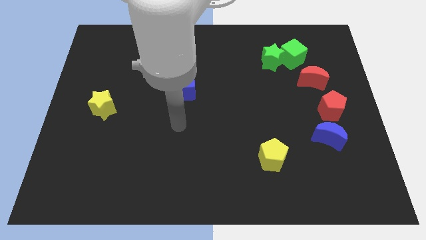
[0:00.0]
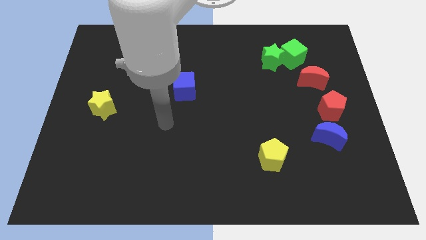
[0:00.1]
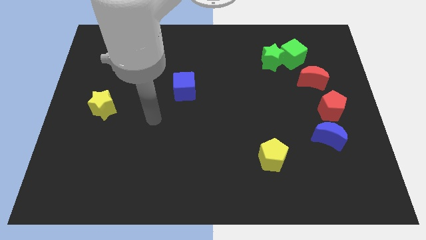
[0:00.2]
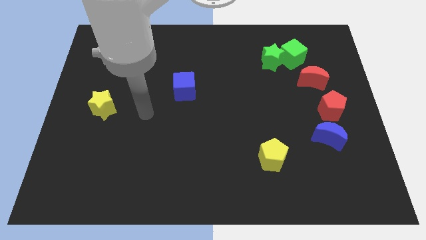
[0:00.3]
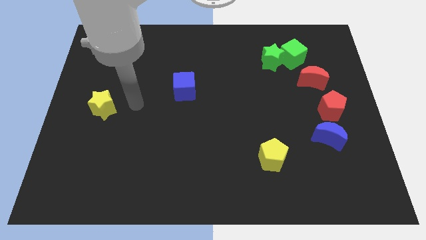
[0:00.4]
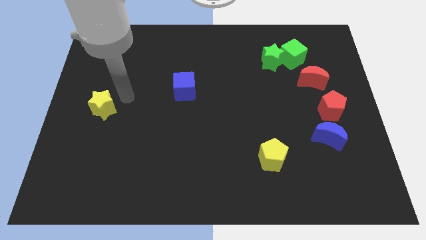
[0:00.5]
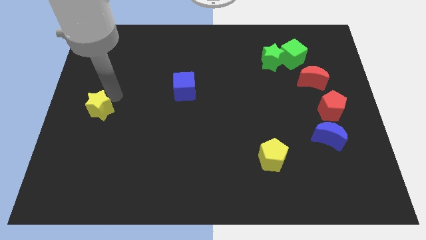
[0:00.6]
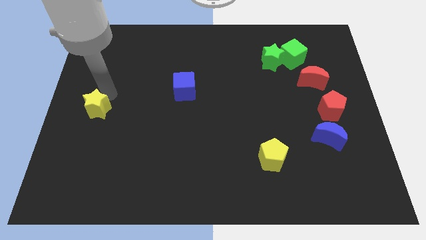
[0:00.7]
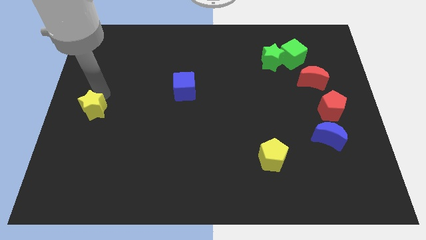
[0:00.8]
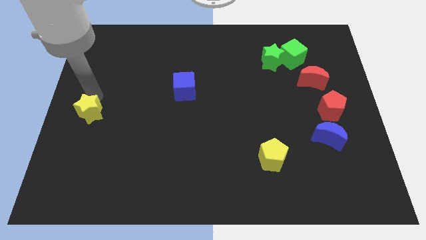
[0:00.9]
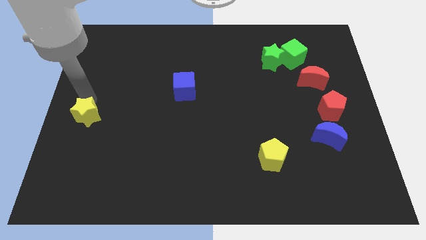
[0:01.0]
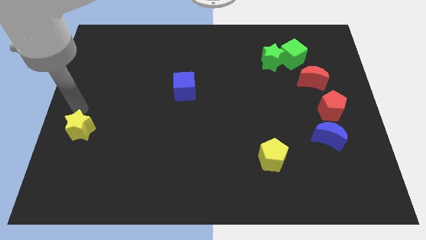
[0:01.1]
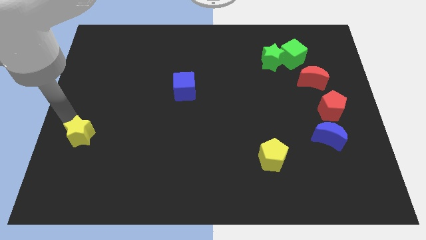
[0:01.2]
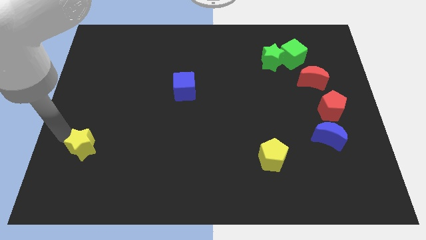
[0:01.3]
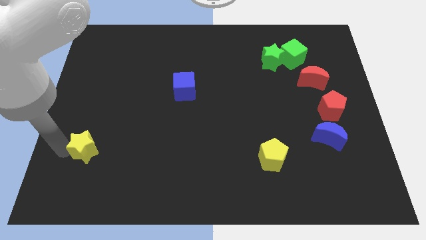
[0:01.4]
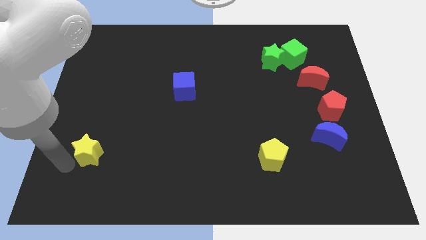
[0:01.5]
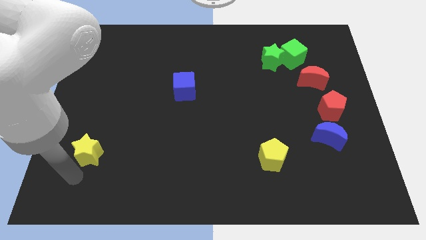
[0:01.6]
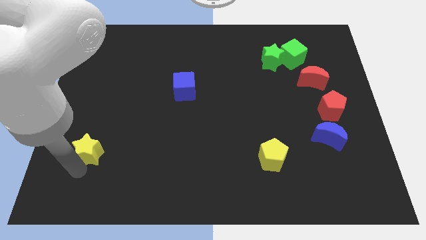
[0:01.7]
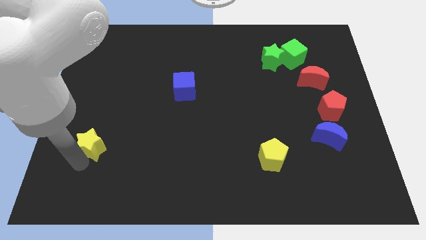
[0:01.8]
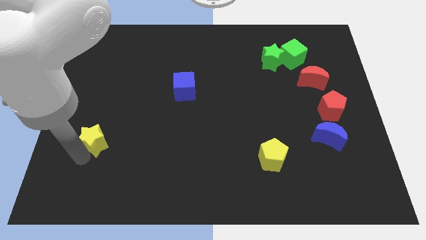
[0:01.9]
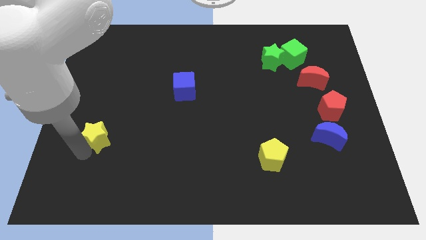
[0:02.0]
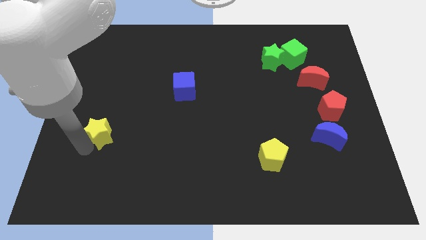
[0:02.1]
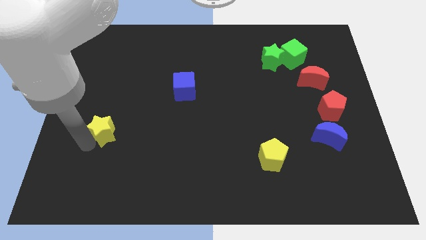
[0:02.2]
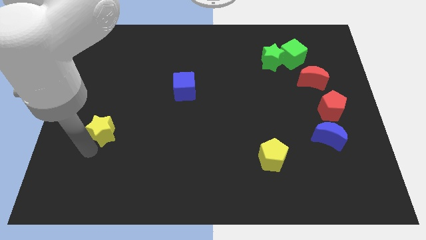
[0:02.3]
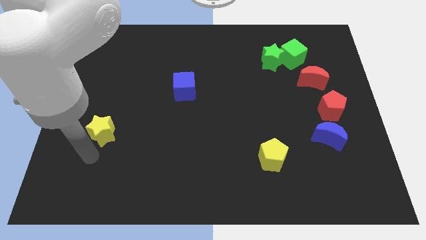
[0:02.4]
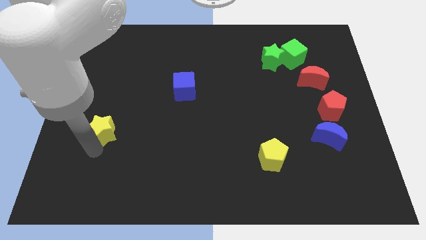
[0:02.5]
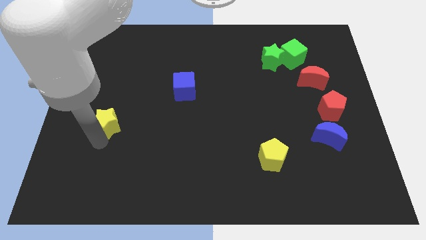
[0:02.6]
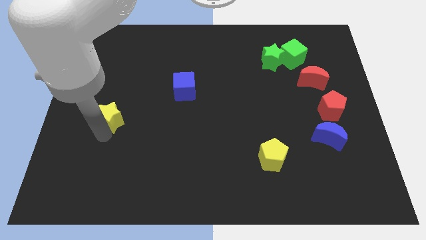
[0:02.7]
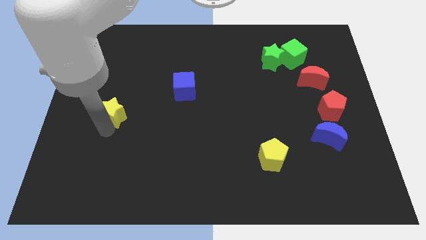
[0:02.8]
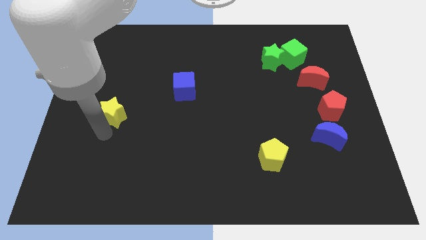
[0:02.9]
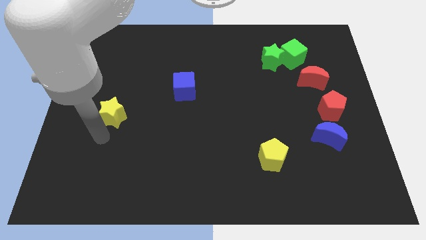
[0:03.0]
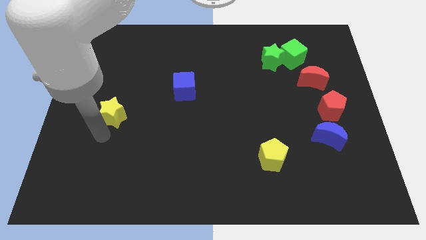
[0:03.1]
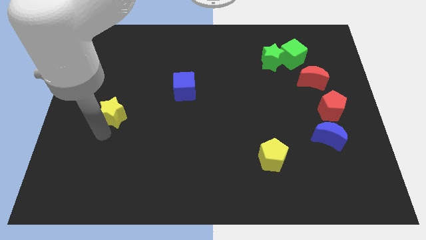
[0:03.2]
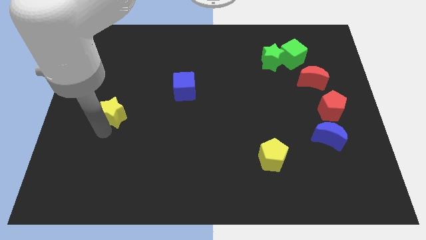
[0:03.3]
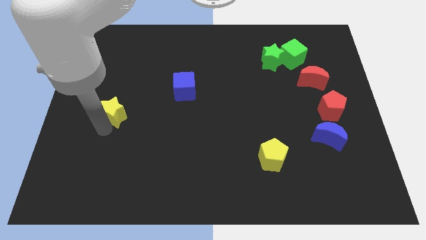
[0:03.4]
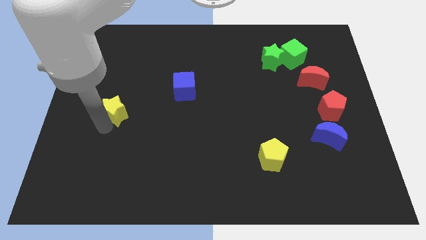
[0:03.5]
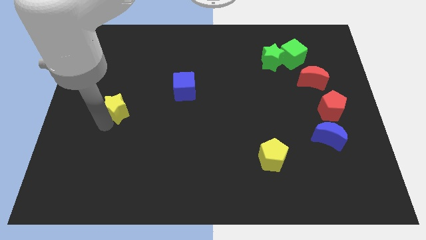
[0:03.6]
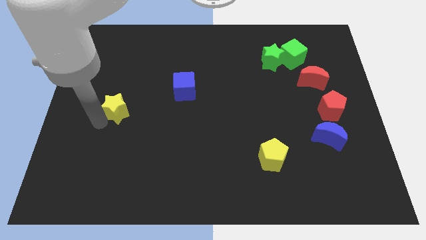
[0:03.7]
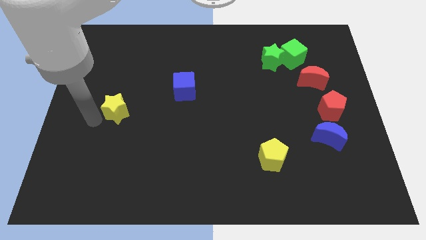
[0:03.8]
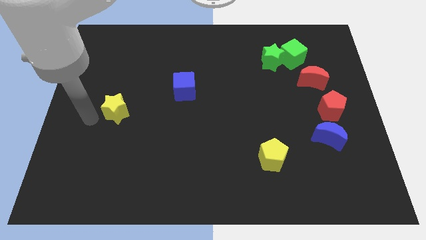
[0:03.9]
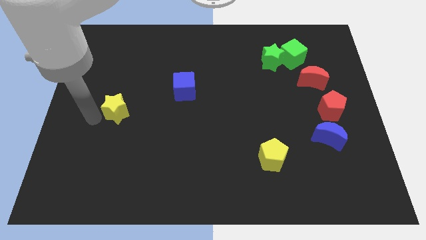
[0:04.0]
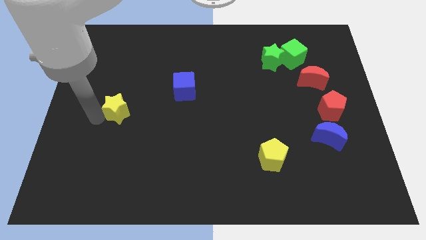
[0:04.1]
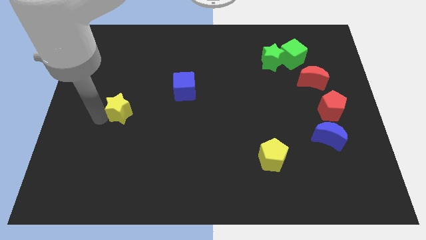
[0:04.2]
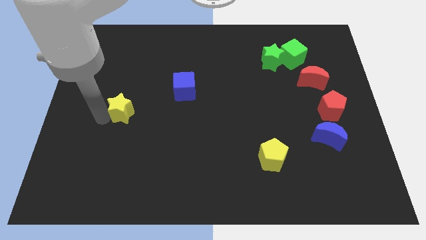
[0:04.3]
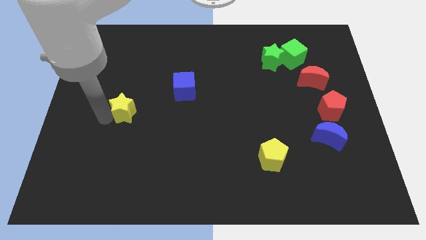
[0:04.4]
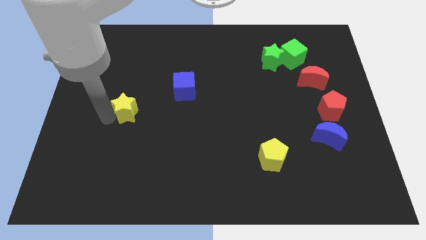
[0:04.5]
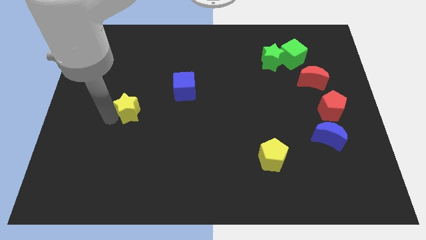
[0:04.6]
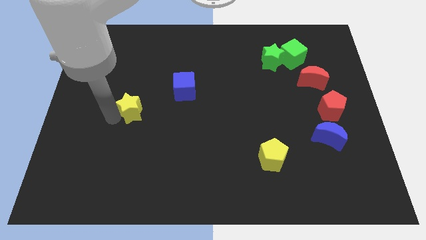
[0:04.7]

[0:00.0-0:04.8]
move the yellow star somewhat right

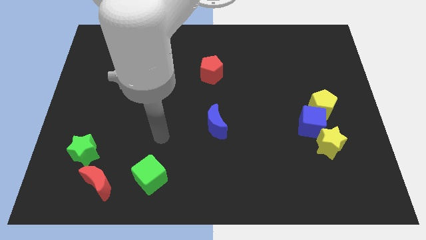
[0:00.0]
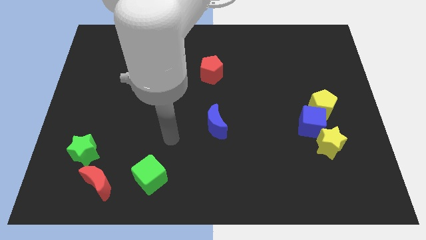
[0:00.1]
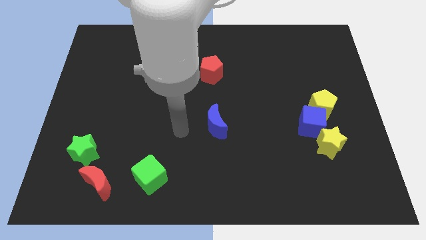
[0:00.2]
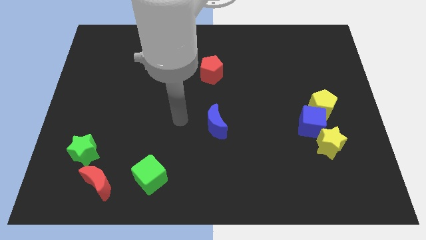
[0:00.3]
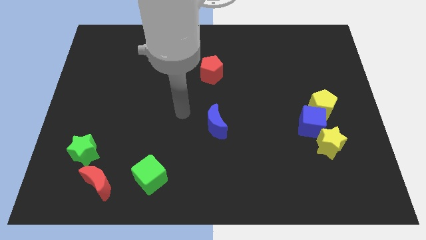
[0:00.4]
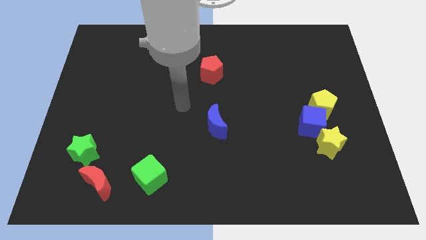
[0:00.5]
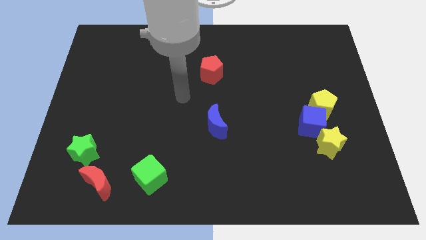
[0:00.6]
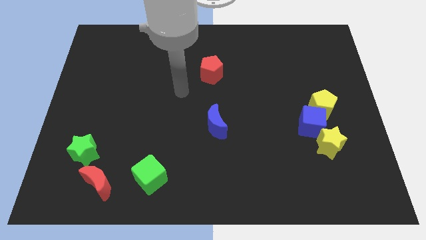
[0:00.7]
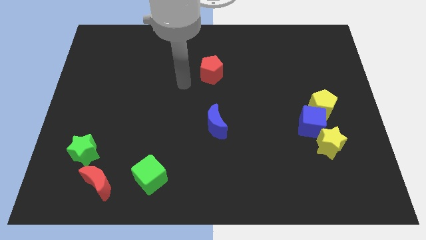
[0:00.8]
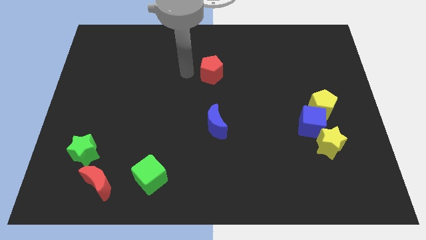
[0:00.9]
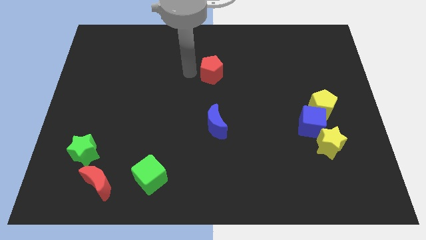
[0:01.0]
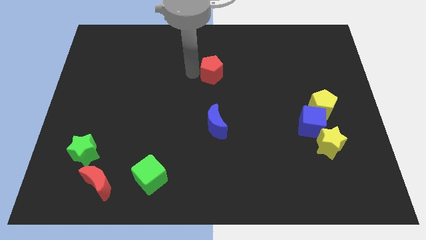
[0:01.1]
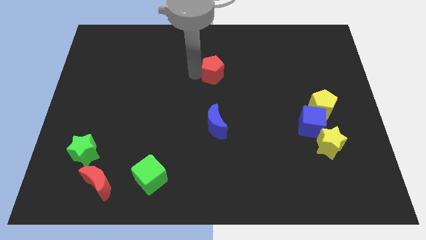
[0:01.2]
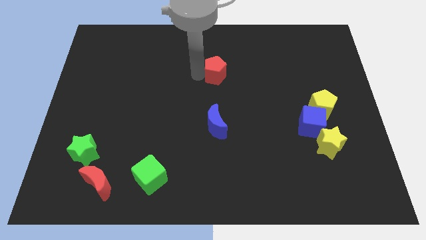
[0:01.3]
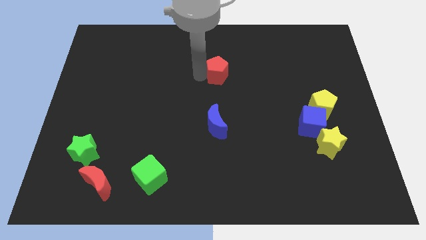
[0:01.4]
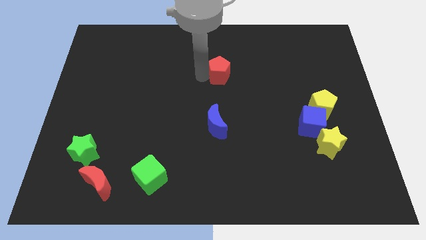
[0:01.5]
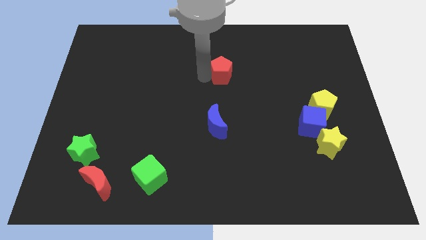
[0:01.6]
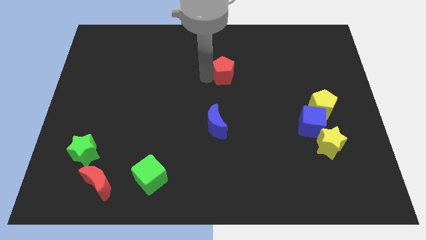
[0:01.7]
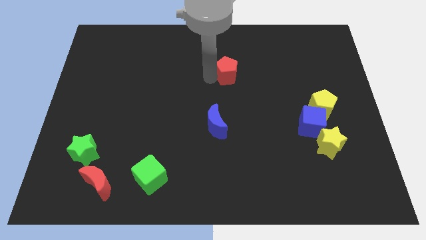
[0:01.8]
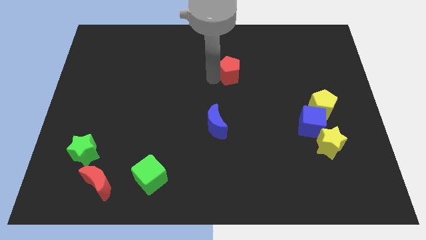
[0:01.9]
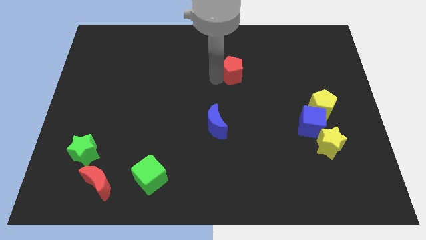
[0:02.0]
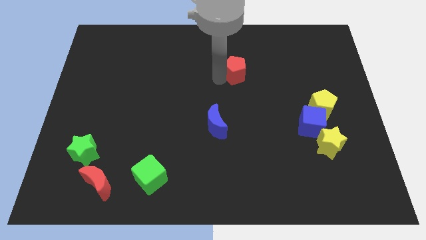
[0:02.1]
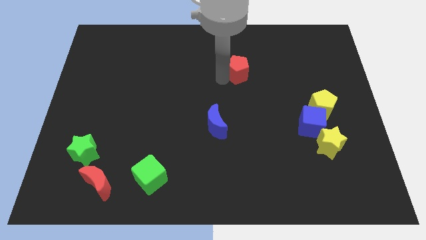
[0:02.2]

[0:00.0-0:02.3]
move the red pentagon a little bit to the right

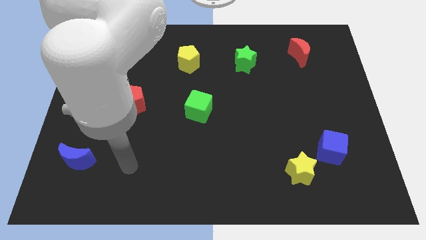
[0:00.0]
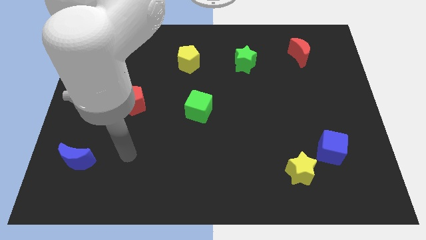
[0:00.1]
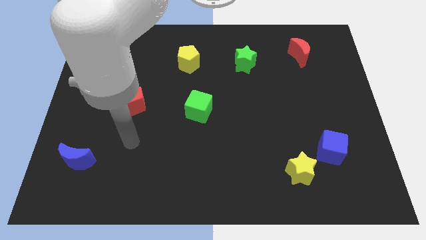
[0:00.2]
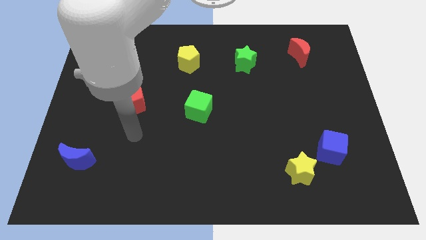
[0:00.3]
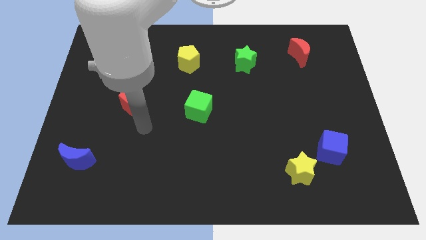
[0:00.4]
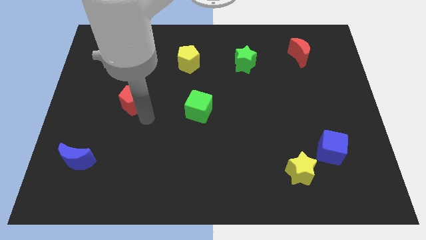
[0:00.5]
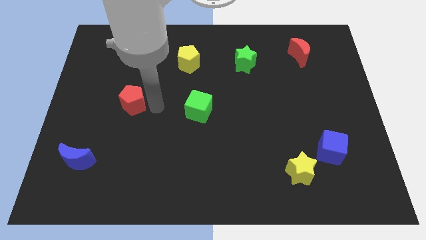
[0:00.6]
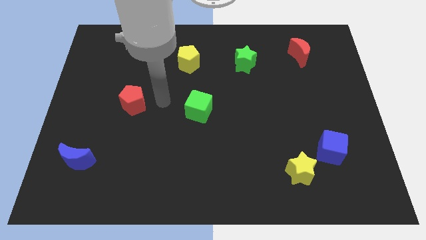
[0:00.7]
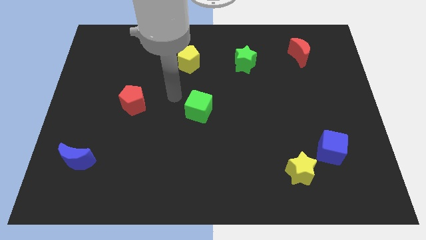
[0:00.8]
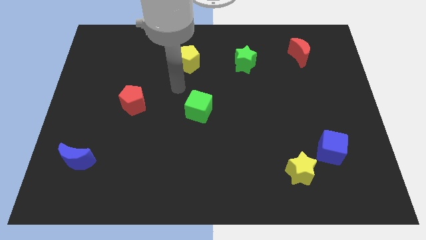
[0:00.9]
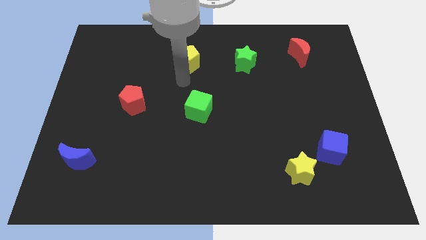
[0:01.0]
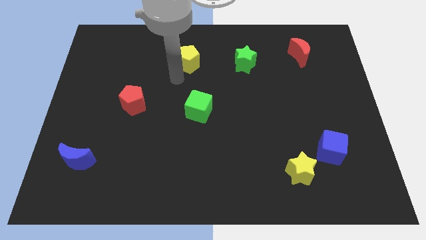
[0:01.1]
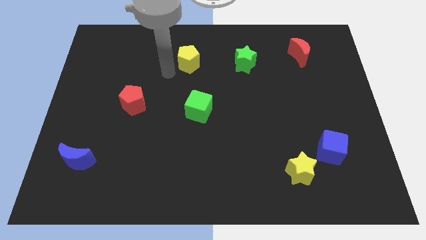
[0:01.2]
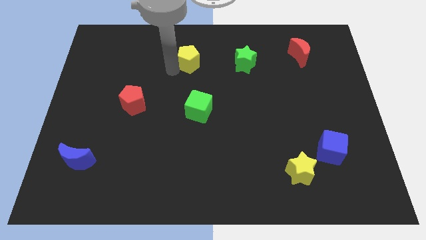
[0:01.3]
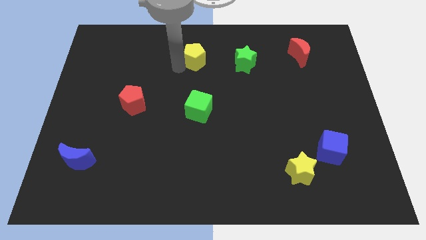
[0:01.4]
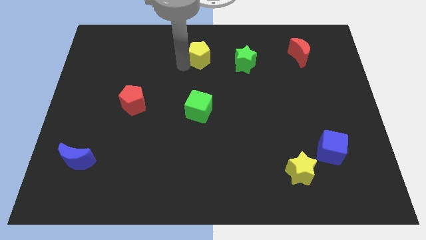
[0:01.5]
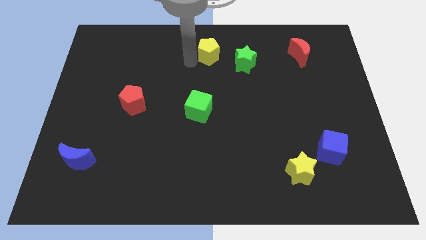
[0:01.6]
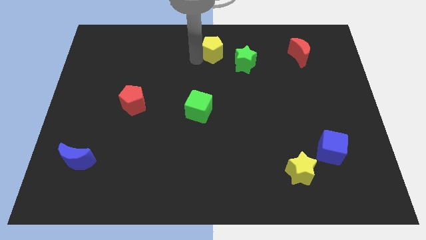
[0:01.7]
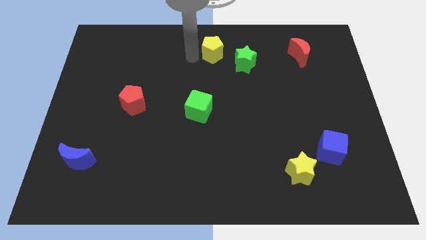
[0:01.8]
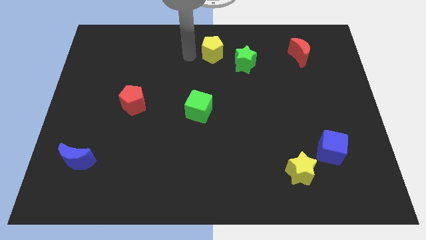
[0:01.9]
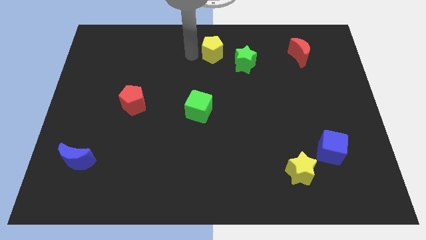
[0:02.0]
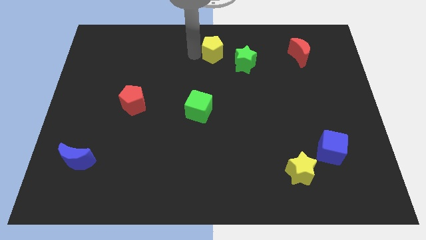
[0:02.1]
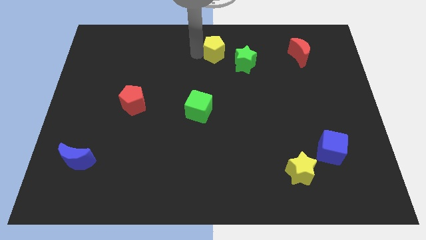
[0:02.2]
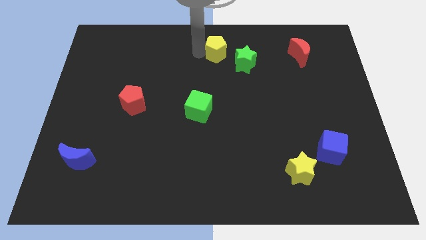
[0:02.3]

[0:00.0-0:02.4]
slightly move the yellow pentagon to the right
